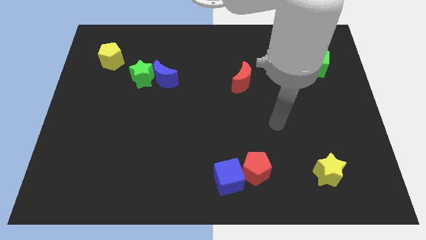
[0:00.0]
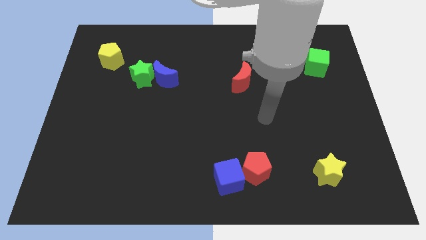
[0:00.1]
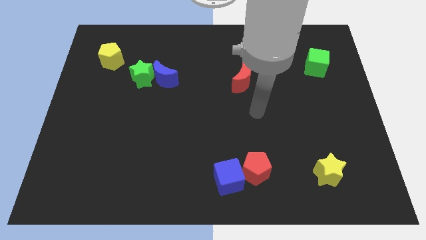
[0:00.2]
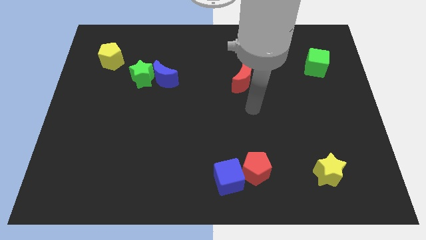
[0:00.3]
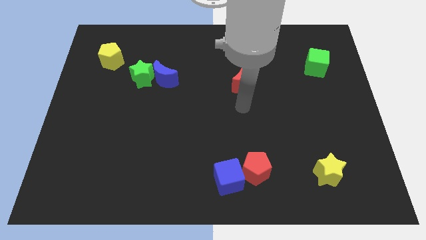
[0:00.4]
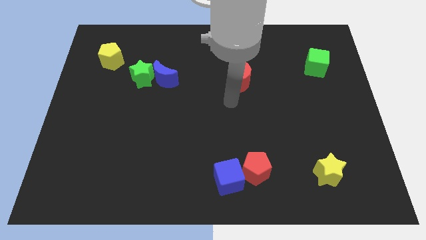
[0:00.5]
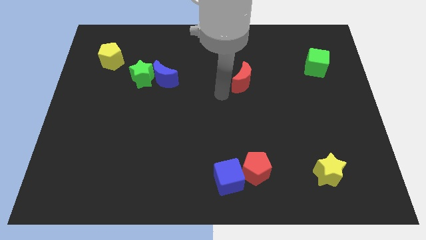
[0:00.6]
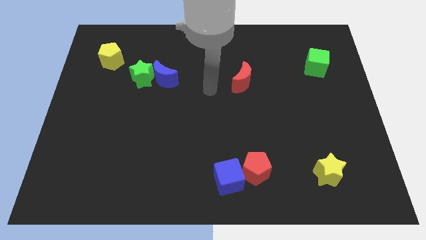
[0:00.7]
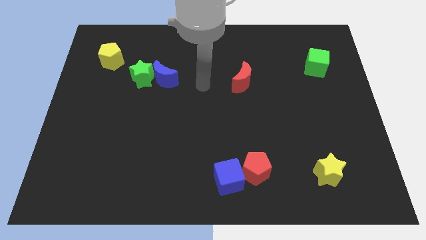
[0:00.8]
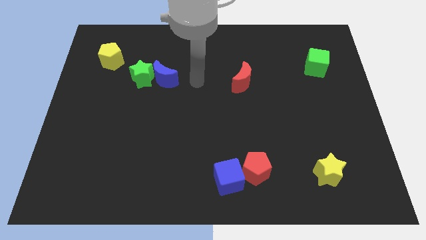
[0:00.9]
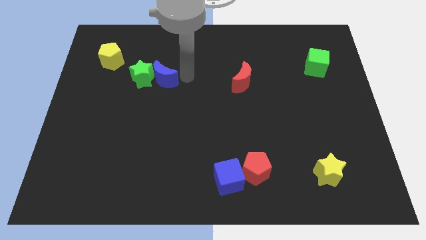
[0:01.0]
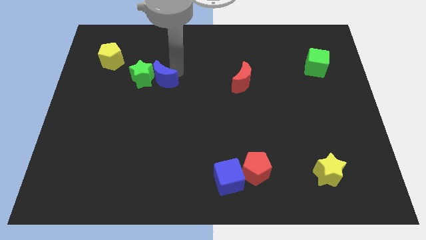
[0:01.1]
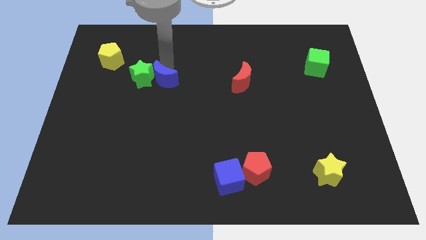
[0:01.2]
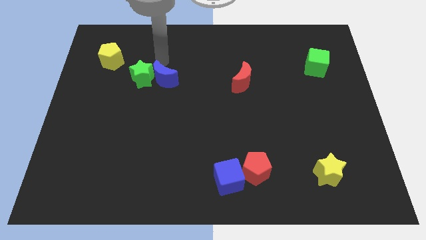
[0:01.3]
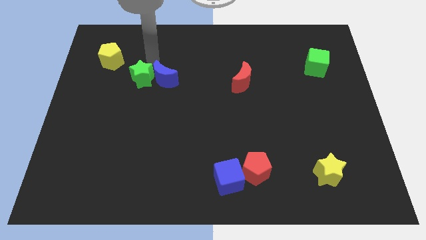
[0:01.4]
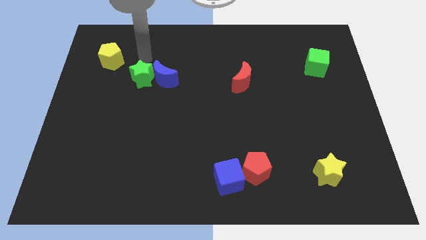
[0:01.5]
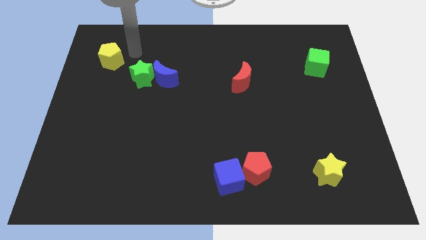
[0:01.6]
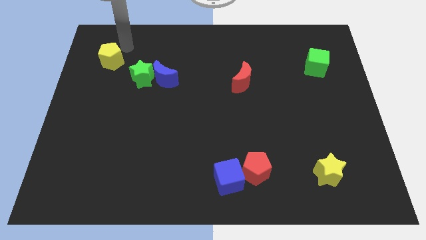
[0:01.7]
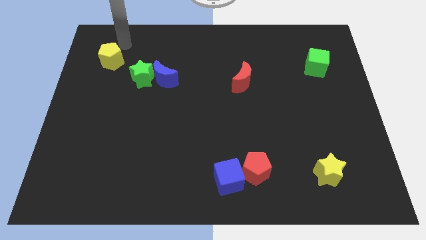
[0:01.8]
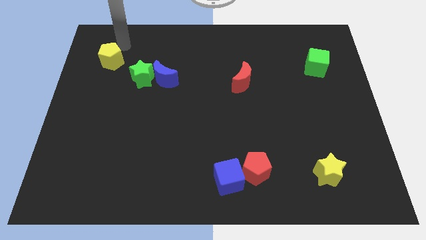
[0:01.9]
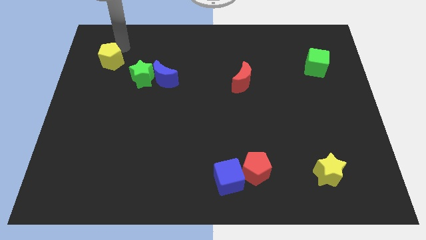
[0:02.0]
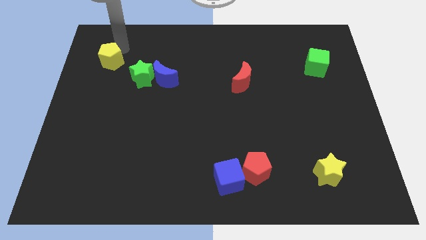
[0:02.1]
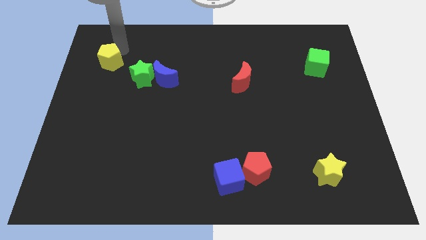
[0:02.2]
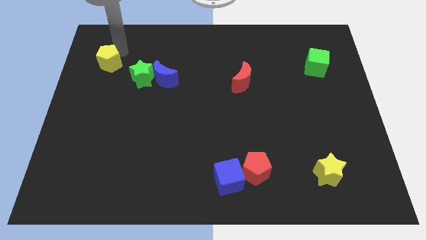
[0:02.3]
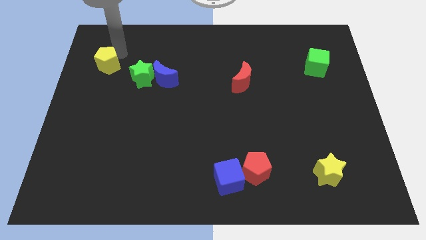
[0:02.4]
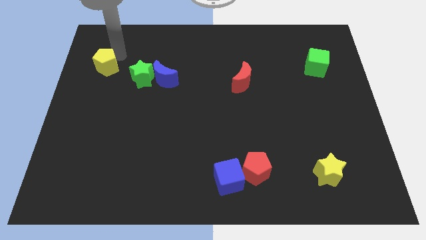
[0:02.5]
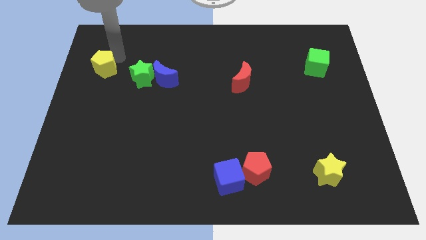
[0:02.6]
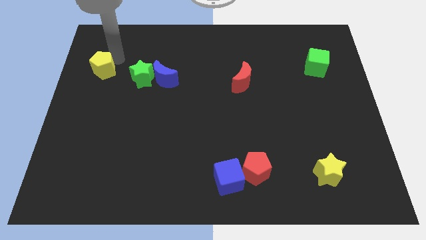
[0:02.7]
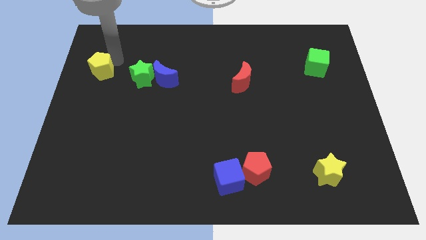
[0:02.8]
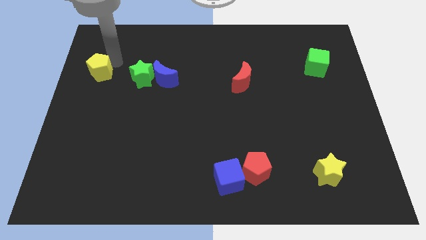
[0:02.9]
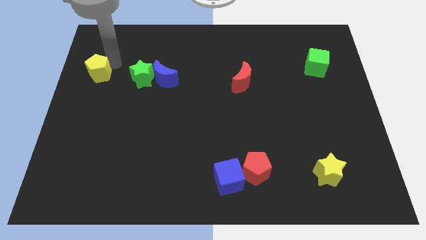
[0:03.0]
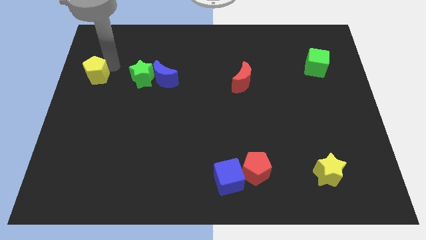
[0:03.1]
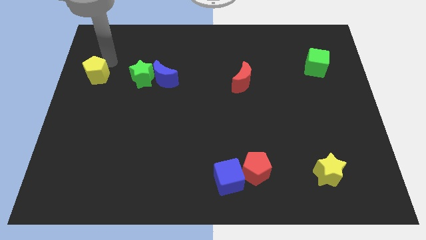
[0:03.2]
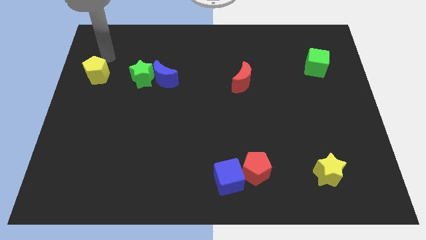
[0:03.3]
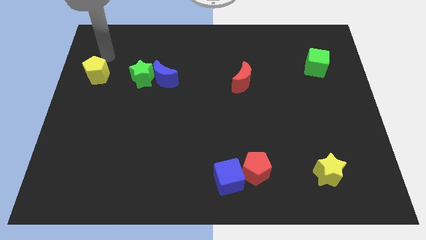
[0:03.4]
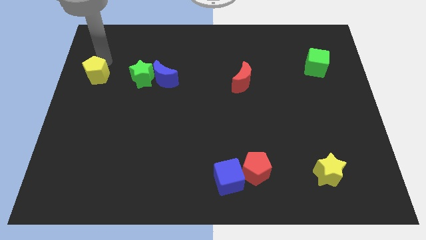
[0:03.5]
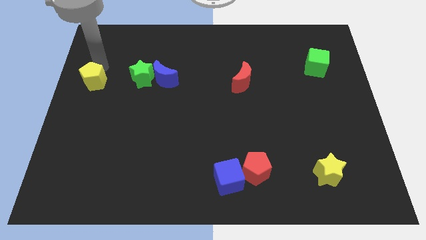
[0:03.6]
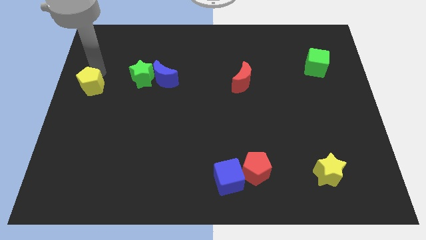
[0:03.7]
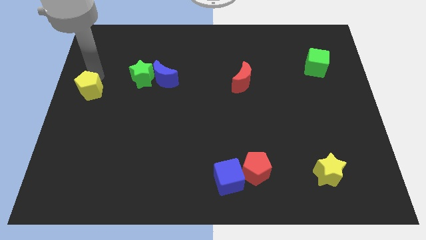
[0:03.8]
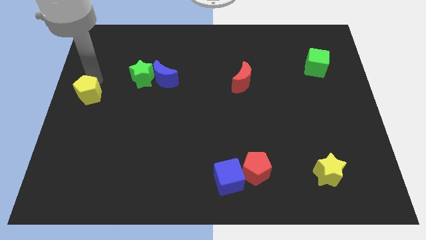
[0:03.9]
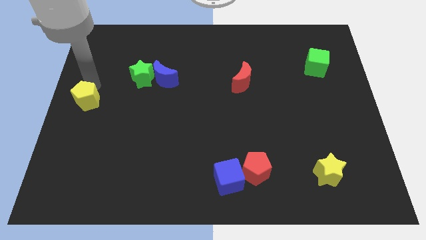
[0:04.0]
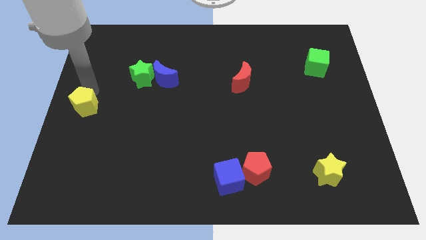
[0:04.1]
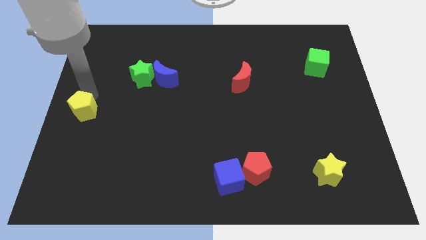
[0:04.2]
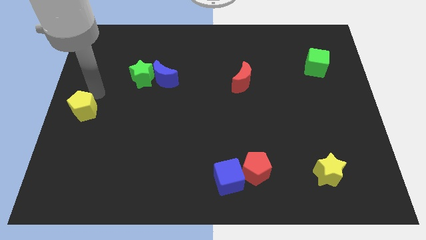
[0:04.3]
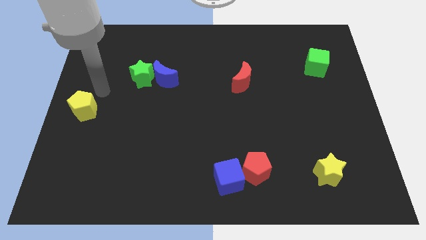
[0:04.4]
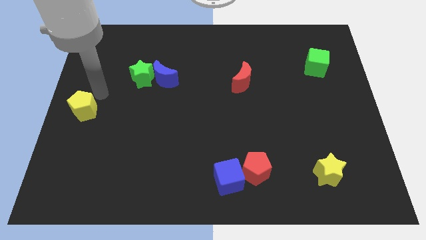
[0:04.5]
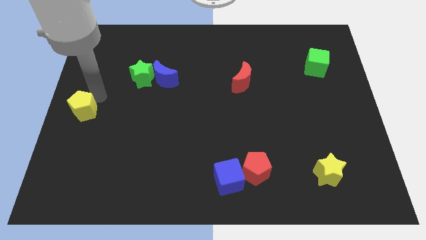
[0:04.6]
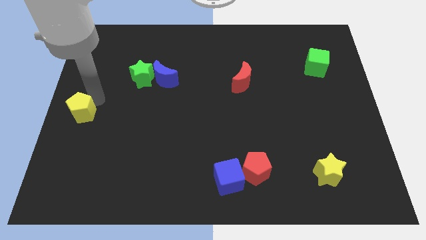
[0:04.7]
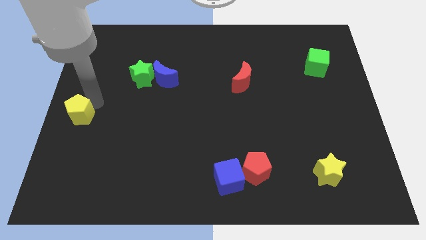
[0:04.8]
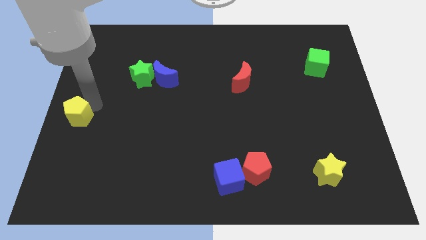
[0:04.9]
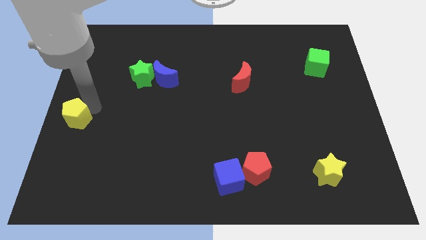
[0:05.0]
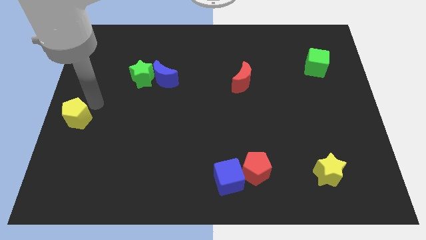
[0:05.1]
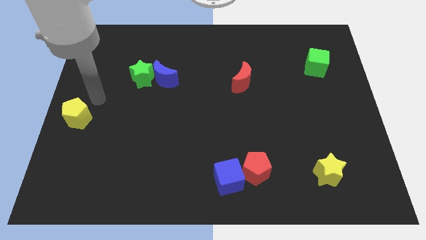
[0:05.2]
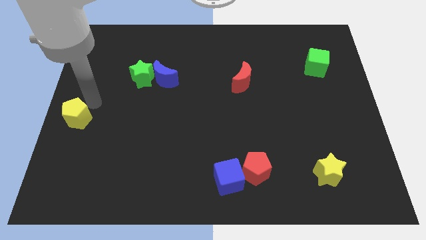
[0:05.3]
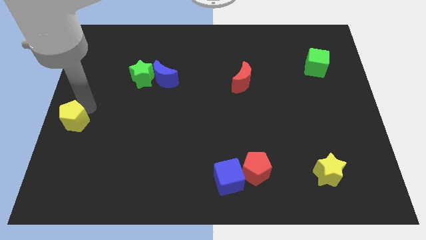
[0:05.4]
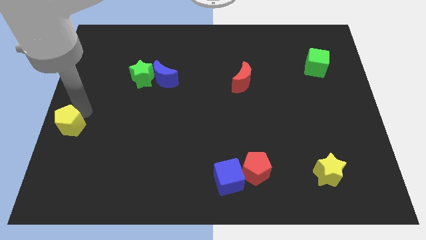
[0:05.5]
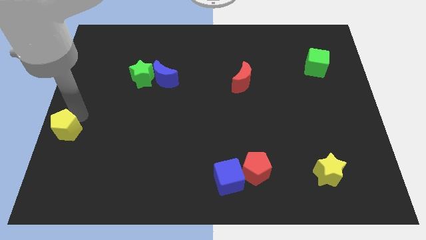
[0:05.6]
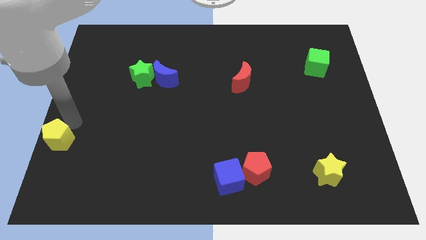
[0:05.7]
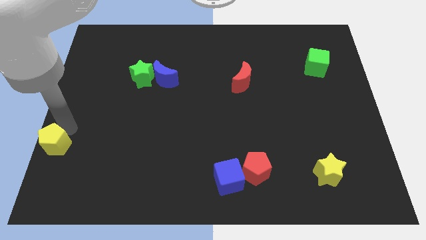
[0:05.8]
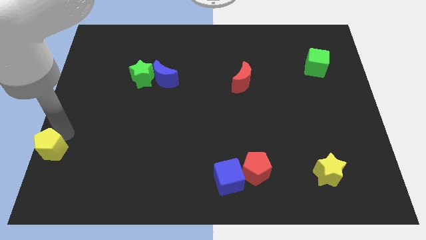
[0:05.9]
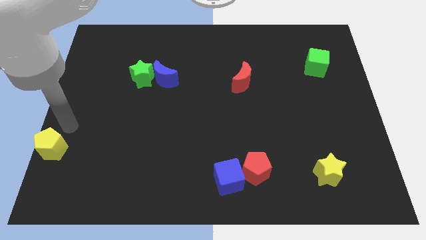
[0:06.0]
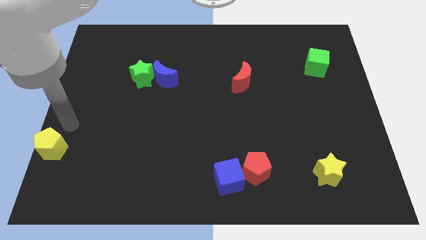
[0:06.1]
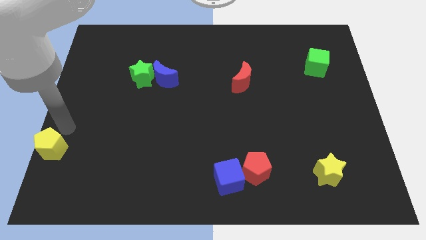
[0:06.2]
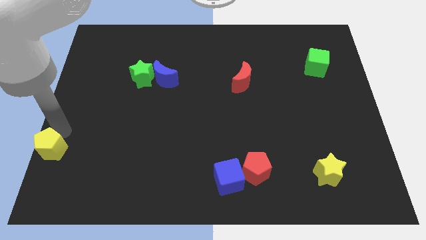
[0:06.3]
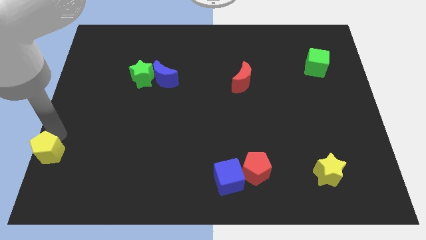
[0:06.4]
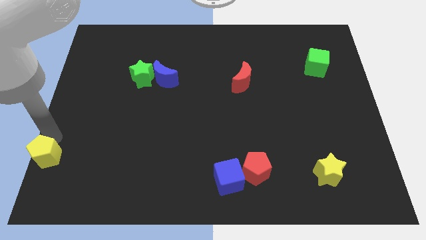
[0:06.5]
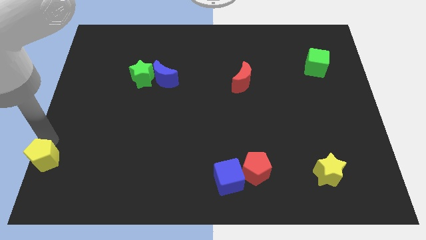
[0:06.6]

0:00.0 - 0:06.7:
slide the yellow pentagon to the bottom left corner

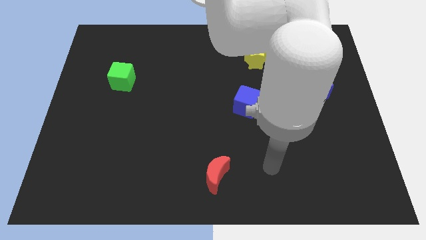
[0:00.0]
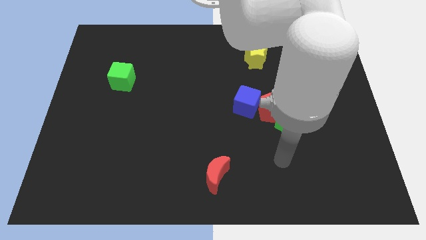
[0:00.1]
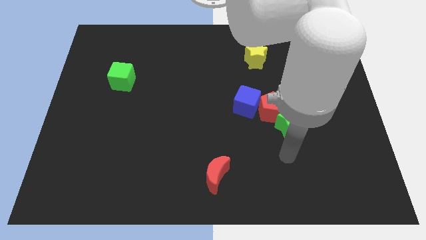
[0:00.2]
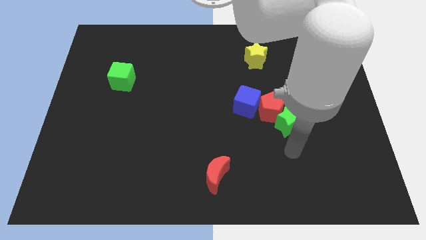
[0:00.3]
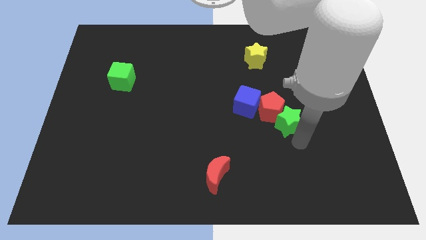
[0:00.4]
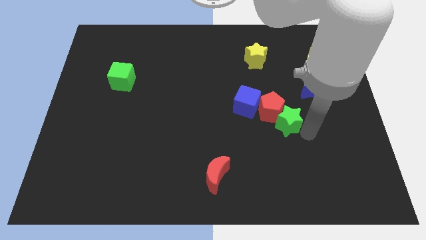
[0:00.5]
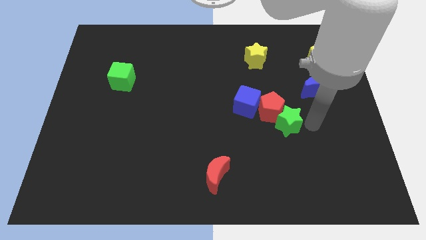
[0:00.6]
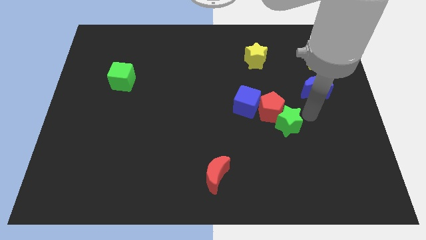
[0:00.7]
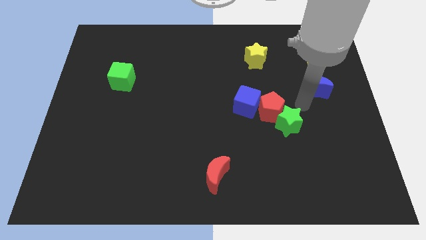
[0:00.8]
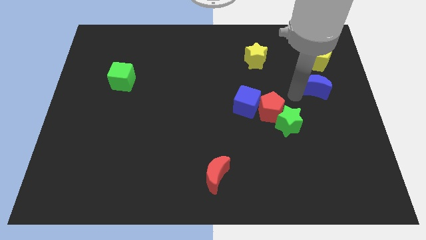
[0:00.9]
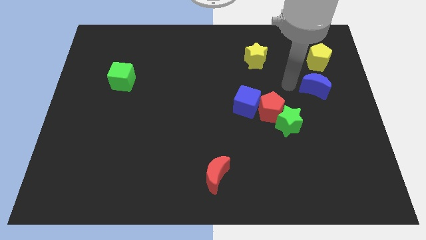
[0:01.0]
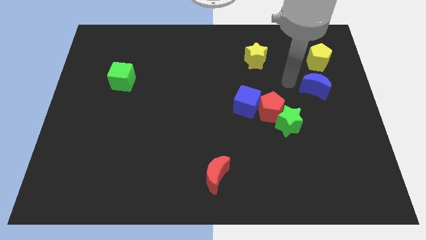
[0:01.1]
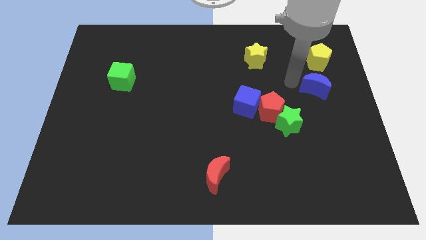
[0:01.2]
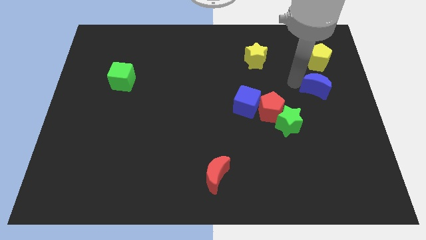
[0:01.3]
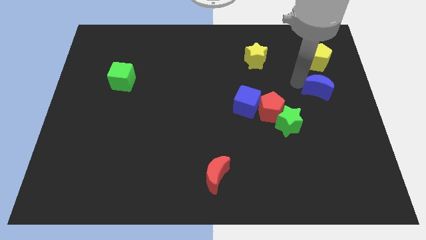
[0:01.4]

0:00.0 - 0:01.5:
move the blue moon to the center right
